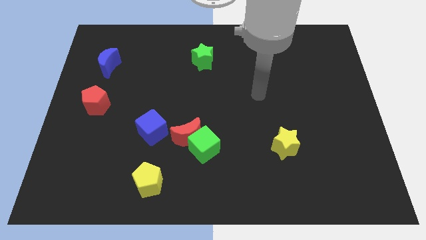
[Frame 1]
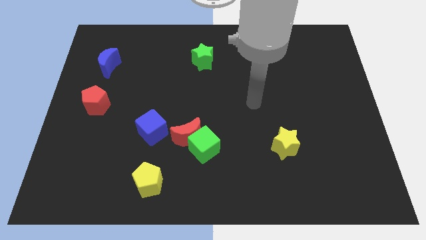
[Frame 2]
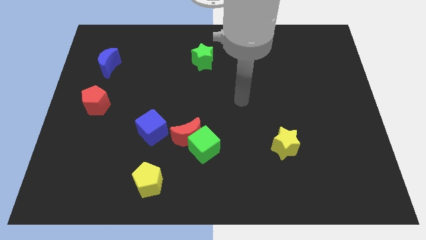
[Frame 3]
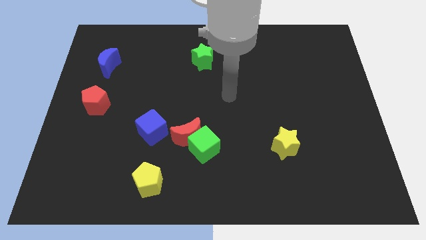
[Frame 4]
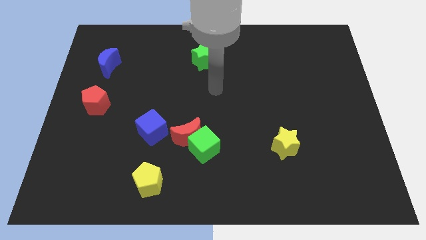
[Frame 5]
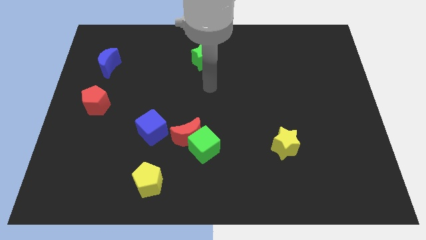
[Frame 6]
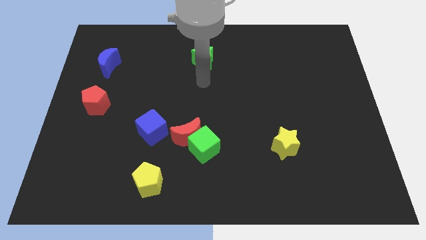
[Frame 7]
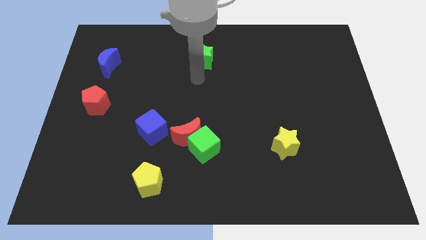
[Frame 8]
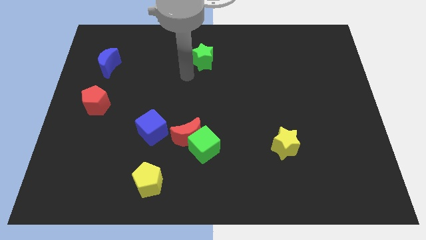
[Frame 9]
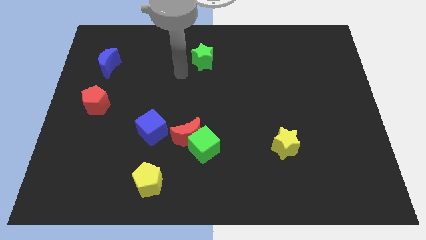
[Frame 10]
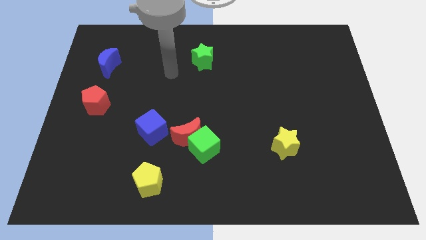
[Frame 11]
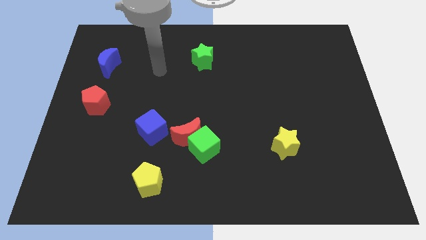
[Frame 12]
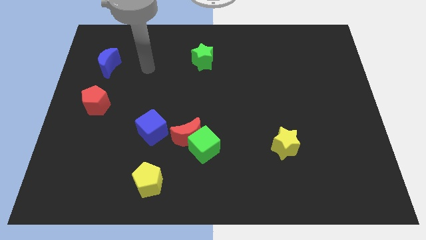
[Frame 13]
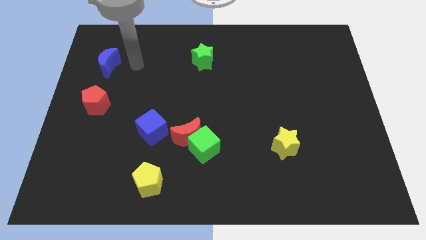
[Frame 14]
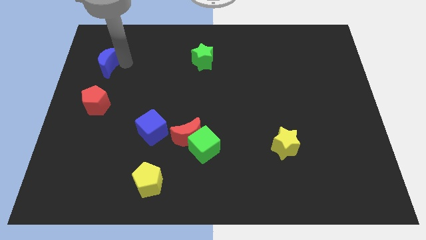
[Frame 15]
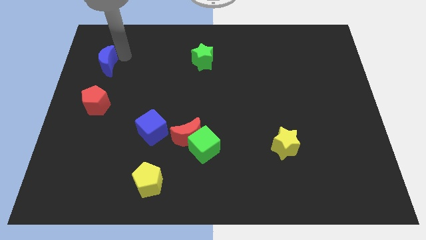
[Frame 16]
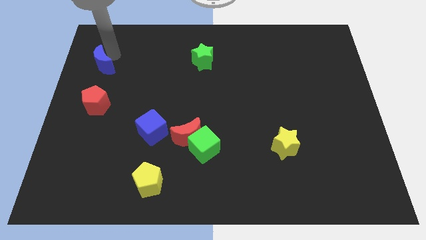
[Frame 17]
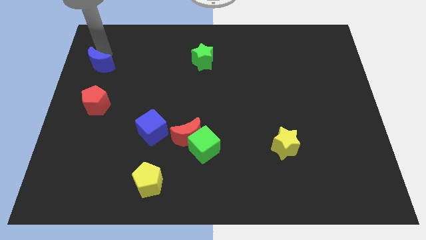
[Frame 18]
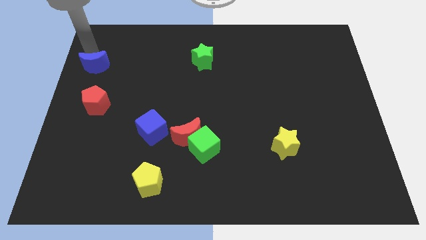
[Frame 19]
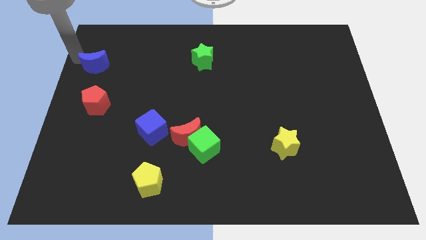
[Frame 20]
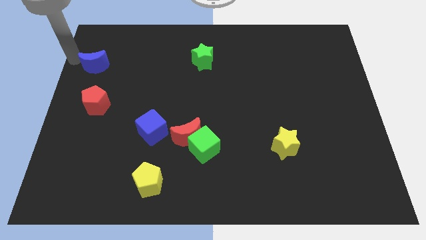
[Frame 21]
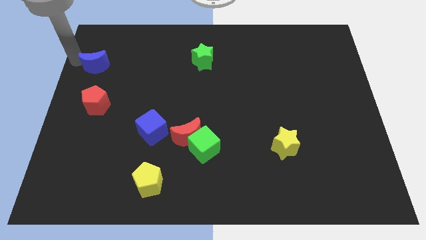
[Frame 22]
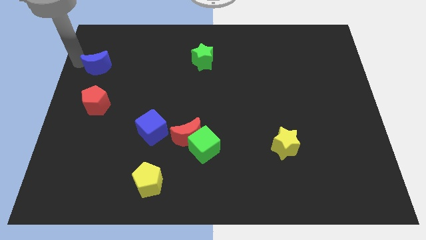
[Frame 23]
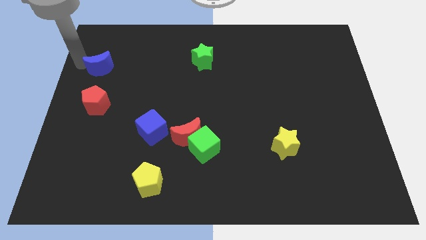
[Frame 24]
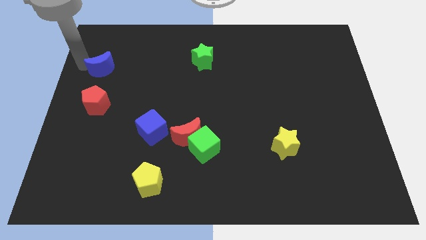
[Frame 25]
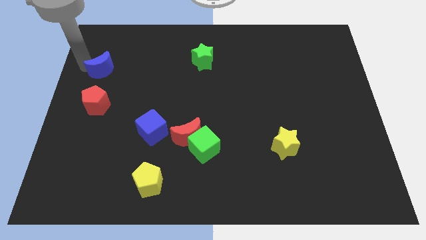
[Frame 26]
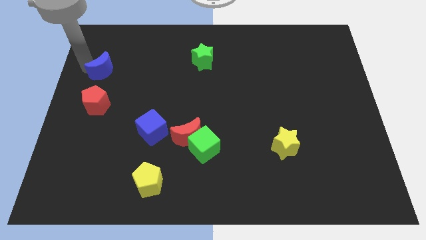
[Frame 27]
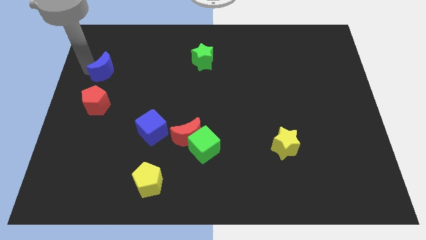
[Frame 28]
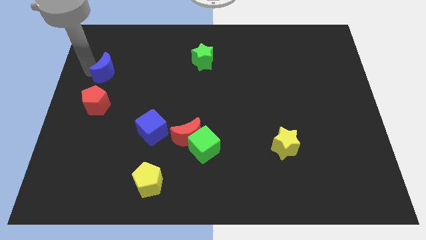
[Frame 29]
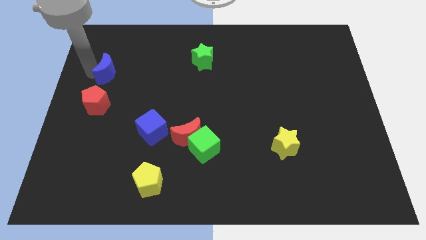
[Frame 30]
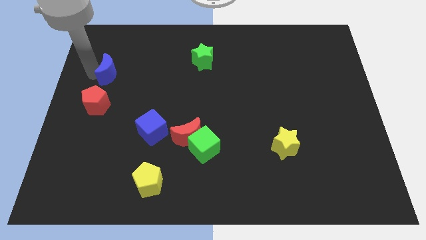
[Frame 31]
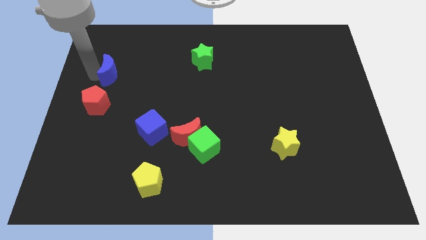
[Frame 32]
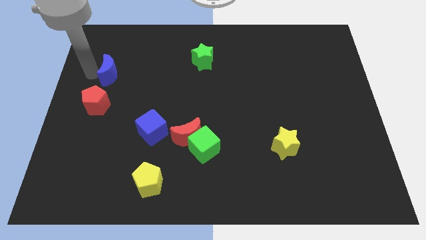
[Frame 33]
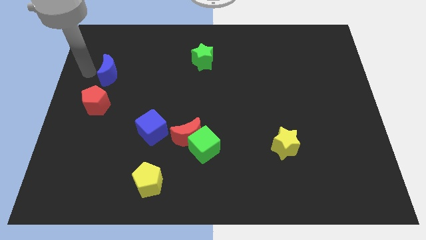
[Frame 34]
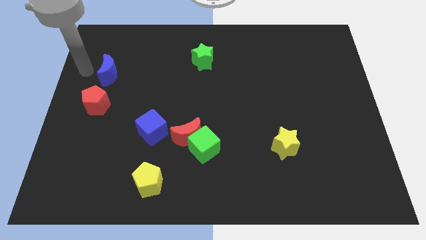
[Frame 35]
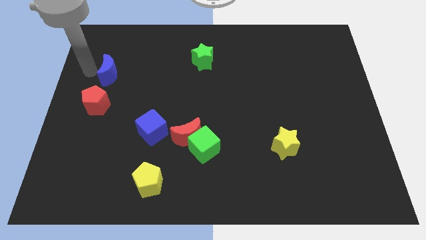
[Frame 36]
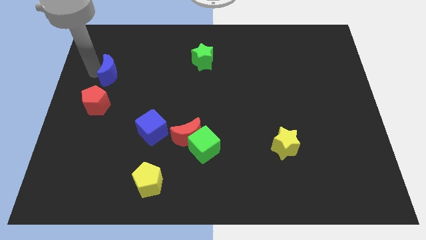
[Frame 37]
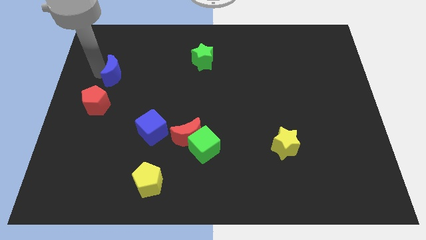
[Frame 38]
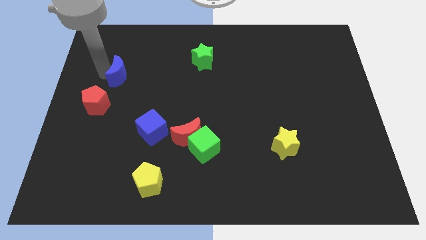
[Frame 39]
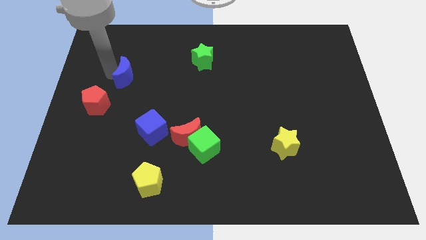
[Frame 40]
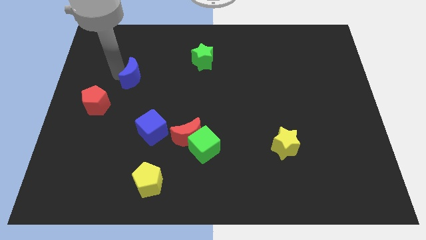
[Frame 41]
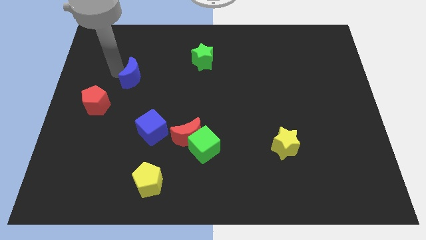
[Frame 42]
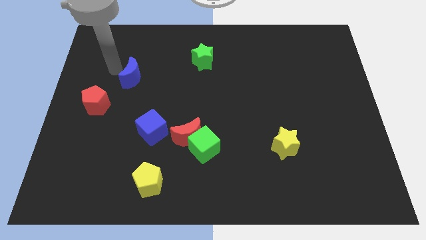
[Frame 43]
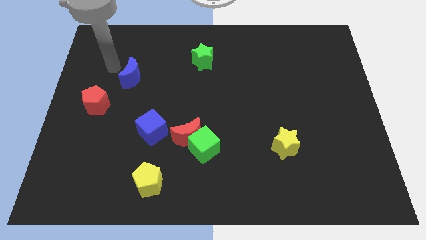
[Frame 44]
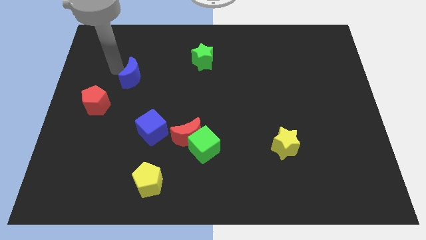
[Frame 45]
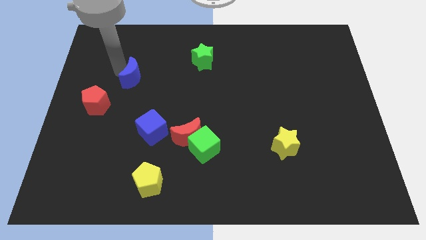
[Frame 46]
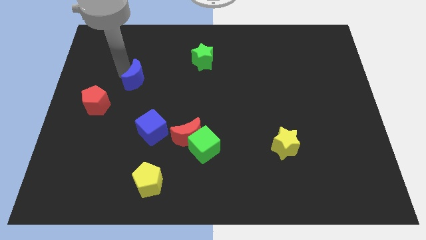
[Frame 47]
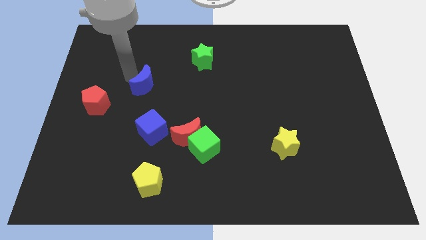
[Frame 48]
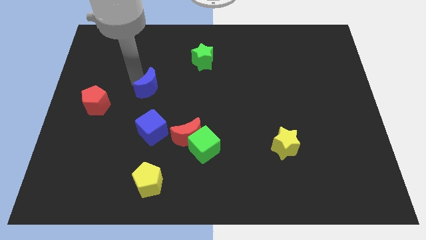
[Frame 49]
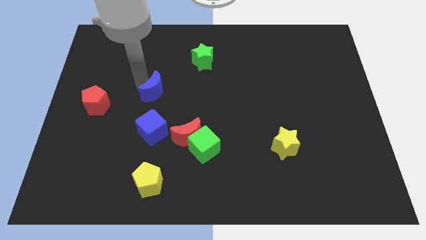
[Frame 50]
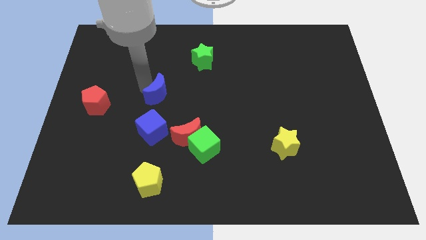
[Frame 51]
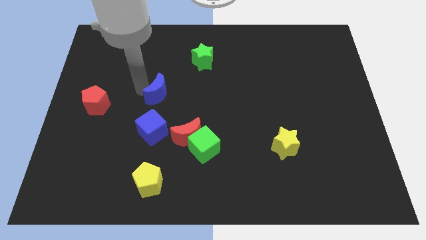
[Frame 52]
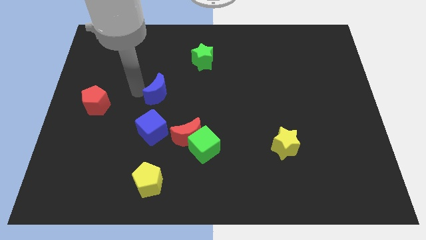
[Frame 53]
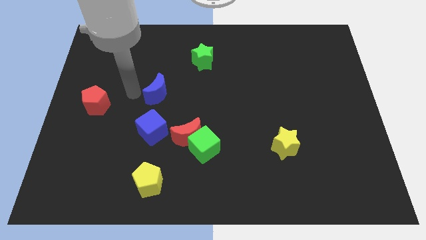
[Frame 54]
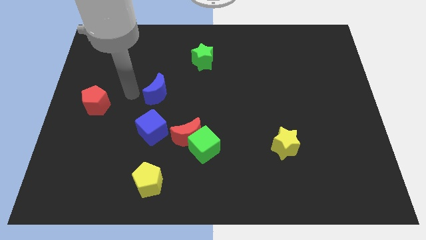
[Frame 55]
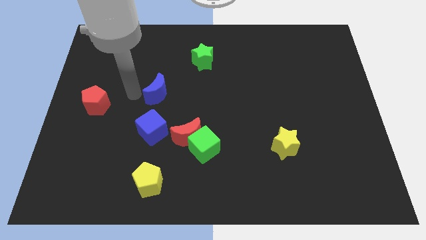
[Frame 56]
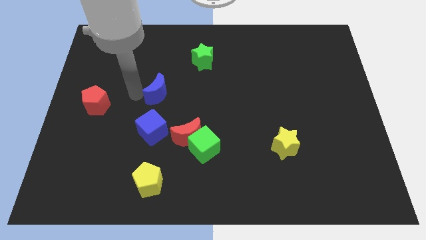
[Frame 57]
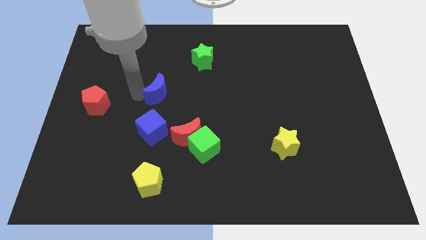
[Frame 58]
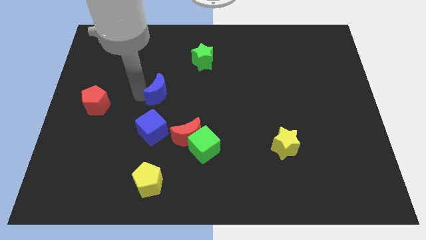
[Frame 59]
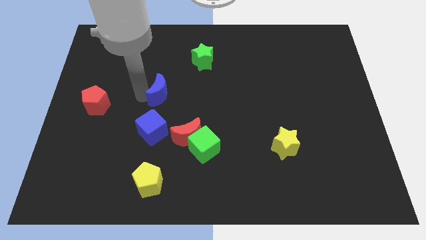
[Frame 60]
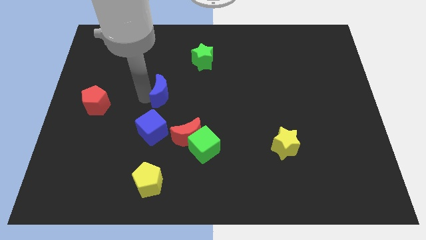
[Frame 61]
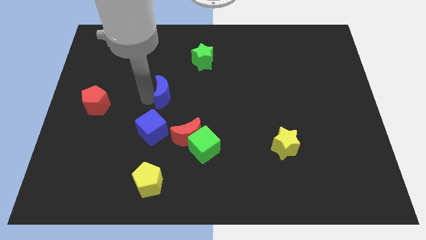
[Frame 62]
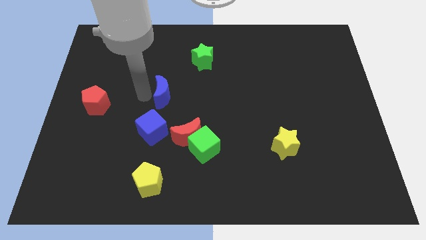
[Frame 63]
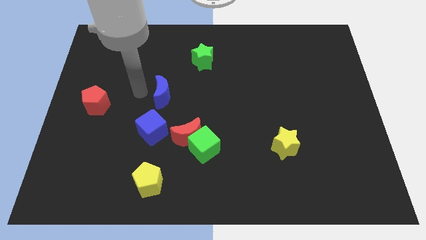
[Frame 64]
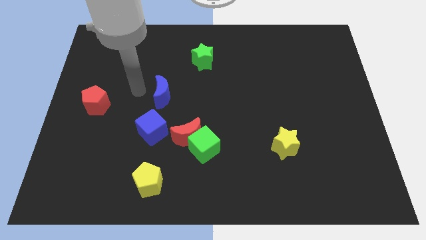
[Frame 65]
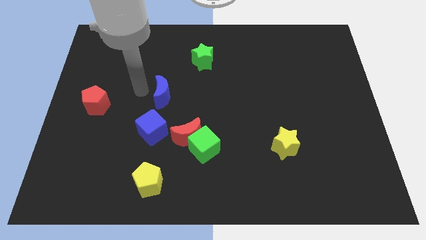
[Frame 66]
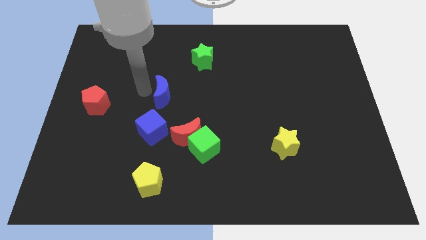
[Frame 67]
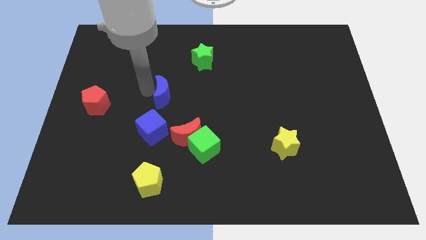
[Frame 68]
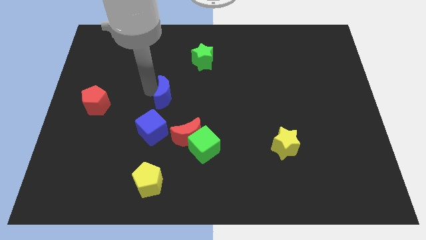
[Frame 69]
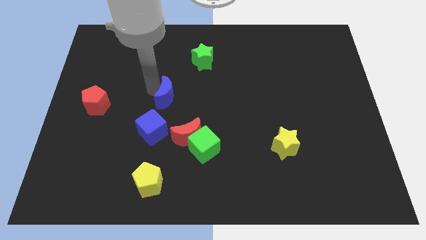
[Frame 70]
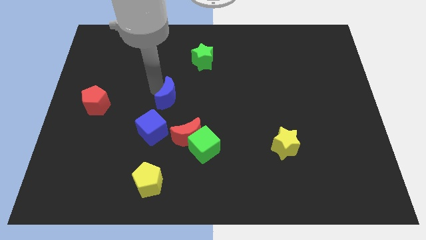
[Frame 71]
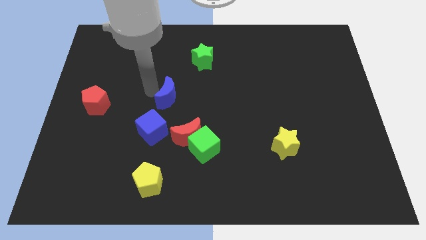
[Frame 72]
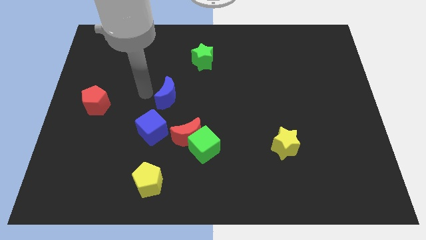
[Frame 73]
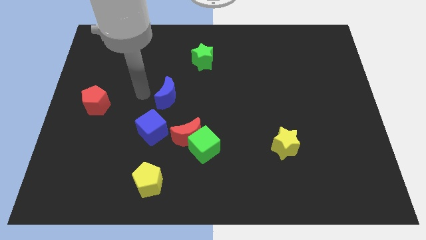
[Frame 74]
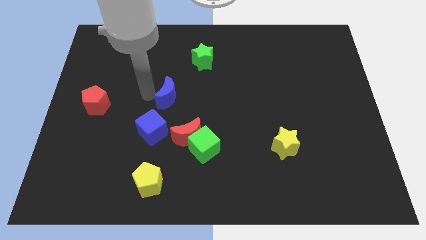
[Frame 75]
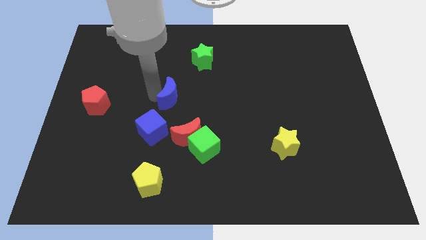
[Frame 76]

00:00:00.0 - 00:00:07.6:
push the blue moon above the red moon
